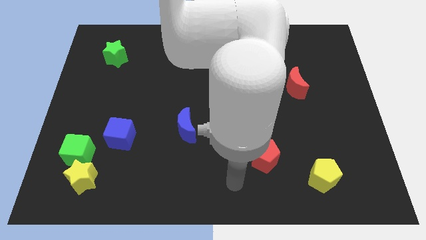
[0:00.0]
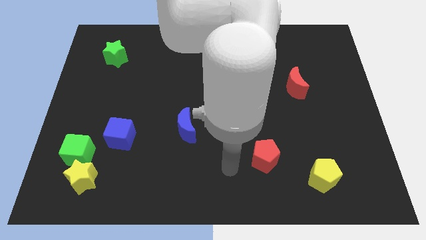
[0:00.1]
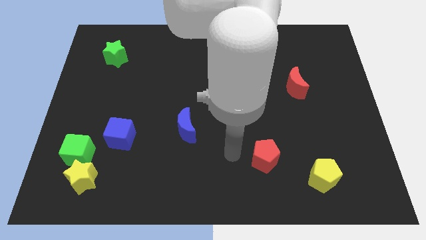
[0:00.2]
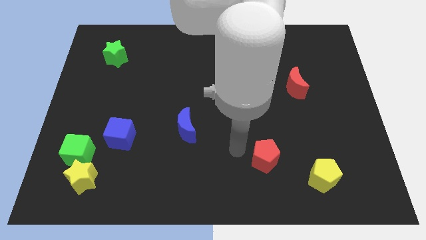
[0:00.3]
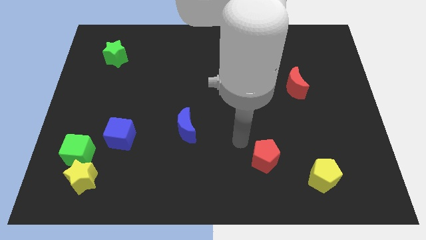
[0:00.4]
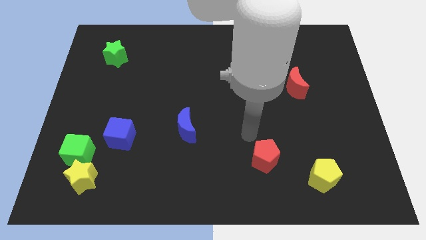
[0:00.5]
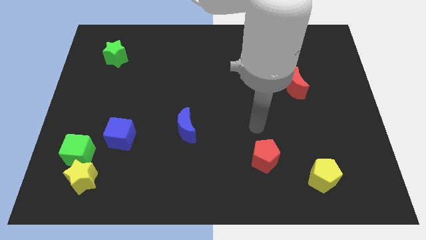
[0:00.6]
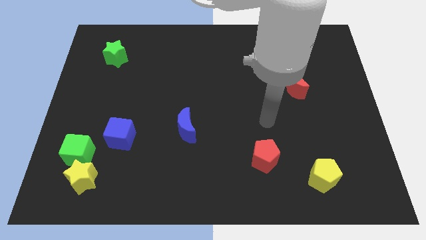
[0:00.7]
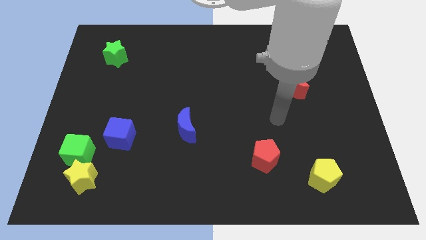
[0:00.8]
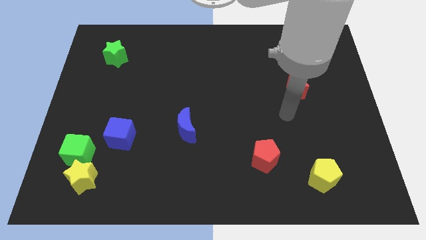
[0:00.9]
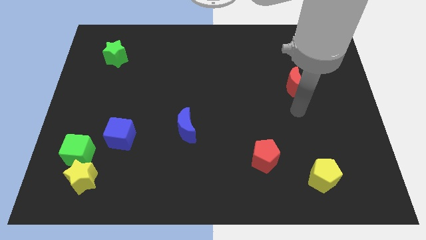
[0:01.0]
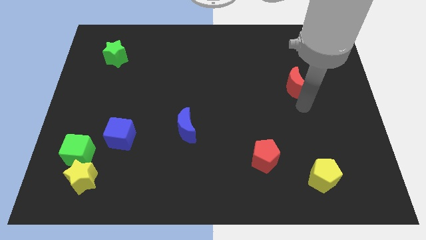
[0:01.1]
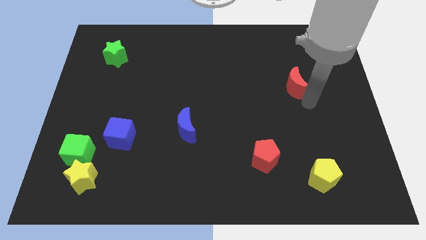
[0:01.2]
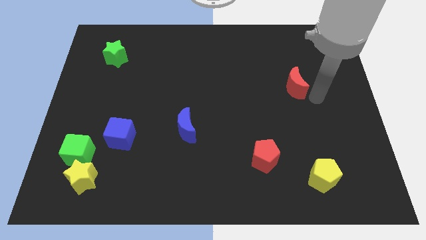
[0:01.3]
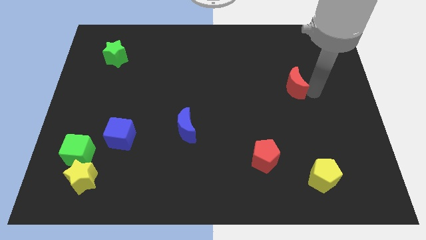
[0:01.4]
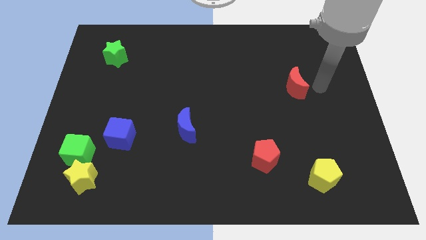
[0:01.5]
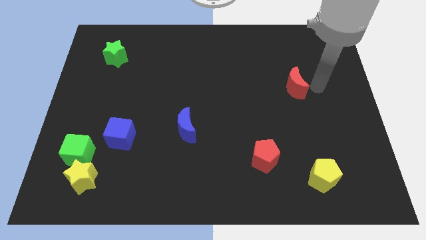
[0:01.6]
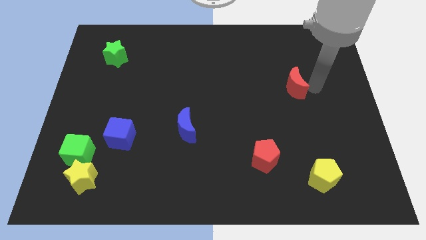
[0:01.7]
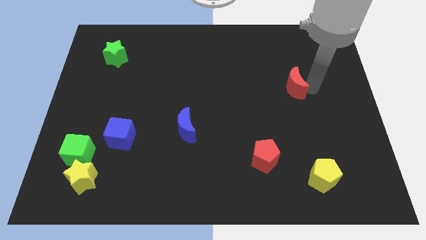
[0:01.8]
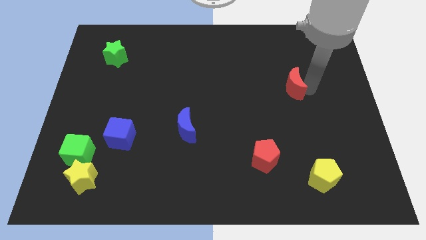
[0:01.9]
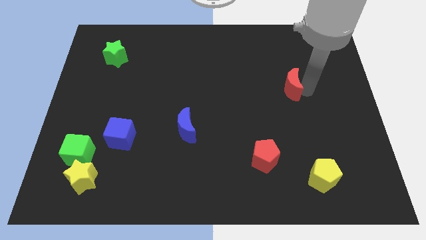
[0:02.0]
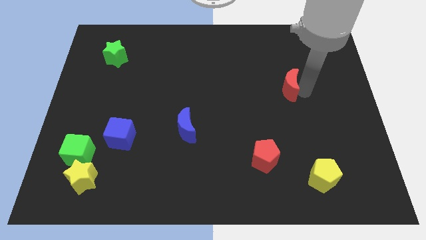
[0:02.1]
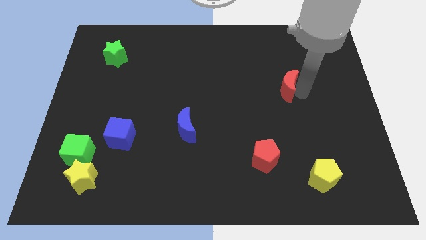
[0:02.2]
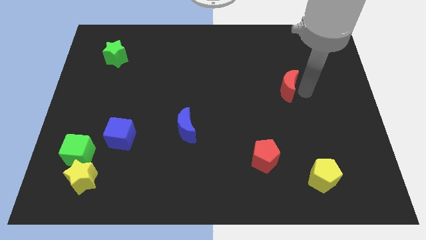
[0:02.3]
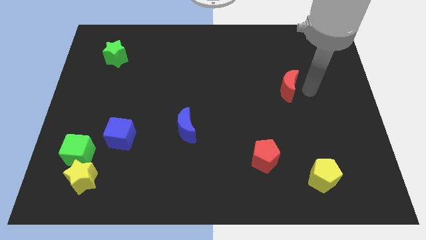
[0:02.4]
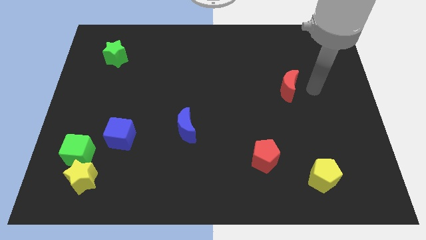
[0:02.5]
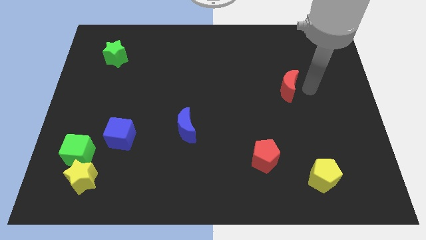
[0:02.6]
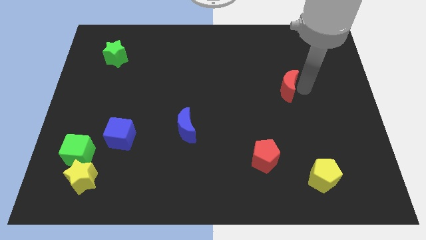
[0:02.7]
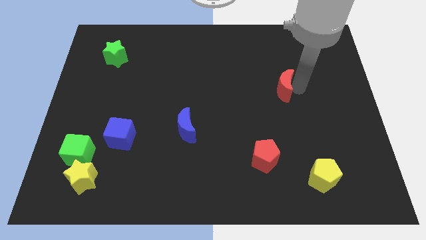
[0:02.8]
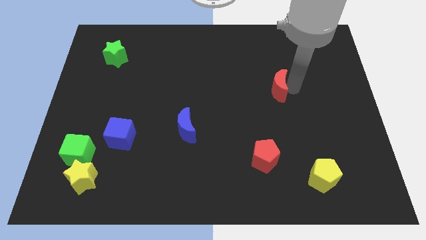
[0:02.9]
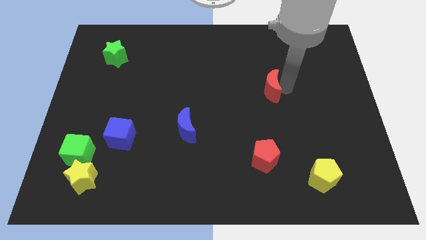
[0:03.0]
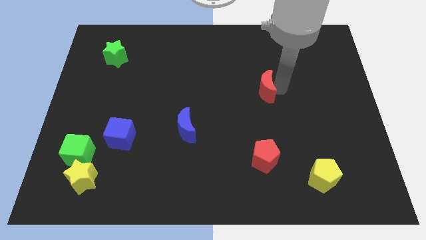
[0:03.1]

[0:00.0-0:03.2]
move the red moon left slightly

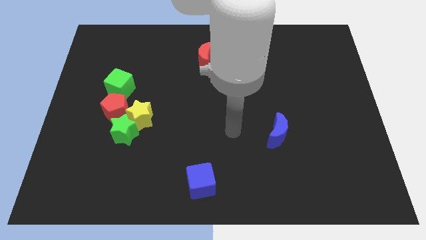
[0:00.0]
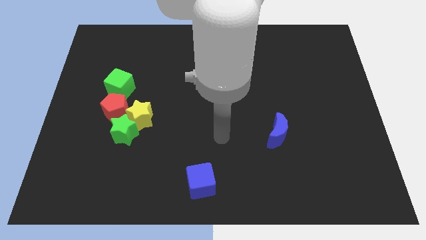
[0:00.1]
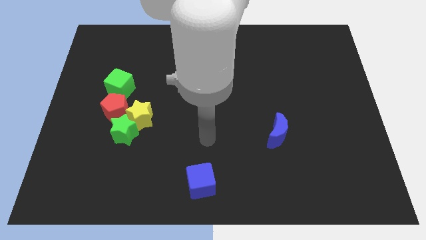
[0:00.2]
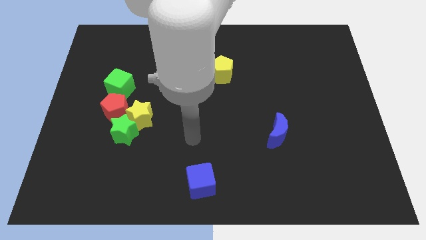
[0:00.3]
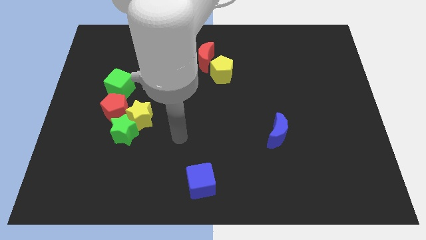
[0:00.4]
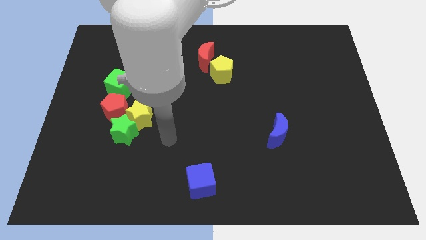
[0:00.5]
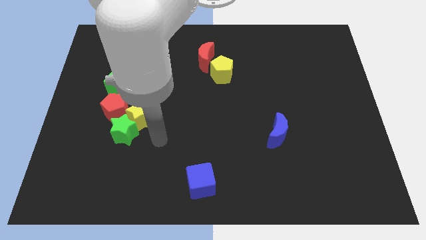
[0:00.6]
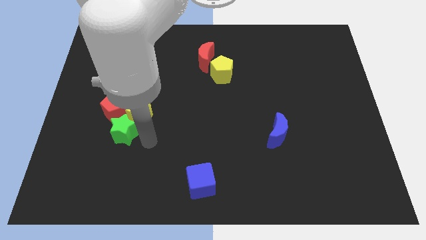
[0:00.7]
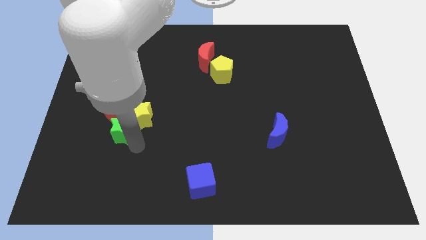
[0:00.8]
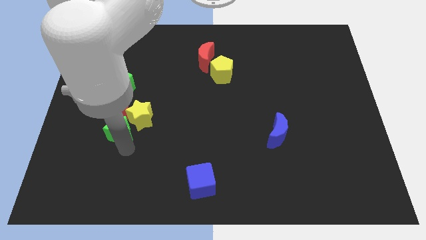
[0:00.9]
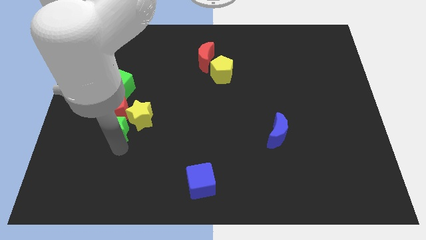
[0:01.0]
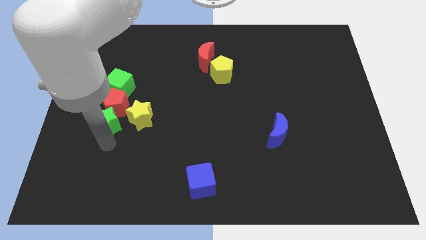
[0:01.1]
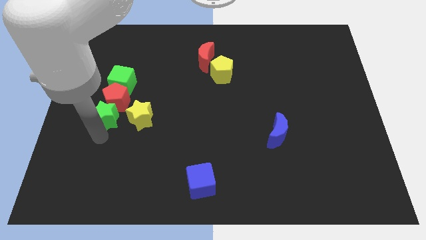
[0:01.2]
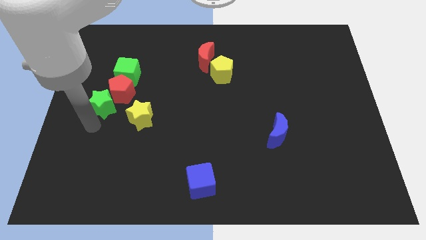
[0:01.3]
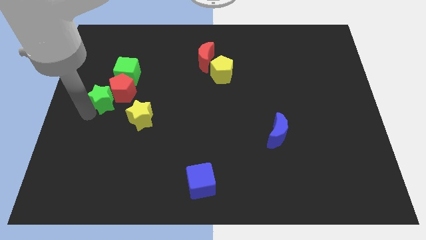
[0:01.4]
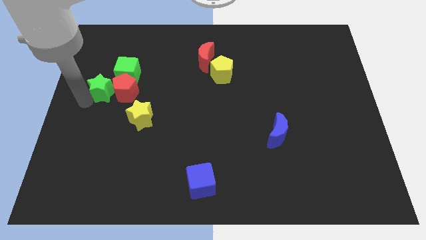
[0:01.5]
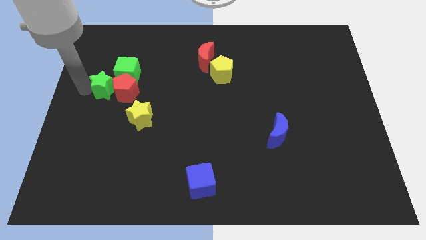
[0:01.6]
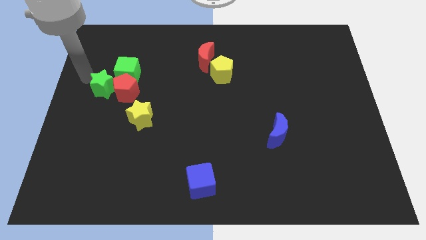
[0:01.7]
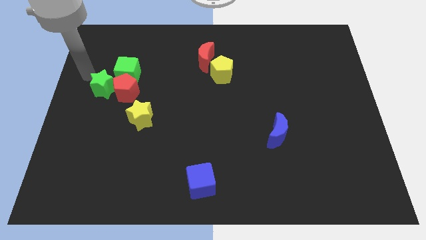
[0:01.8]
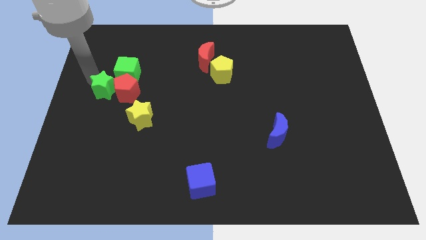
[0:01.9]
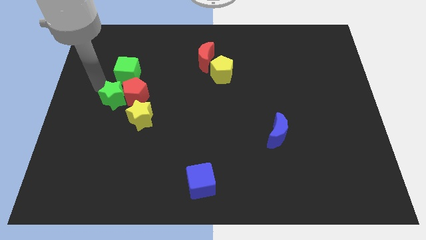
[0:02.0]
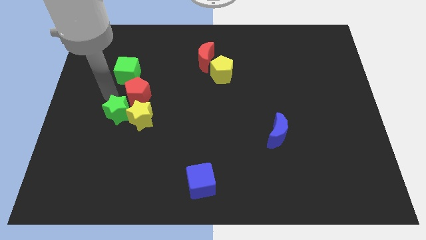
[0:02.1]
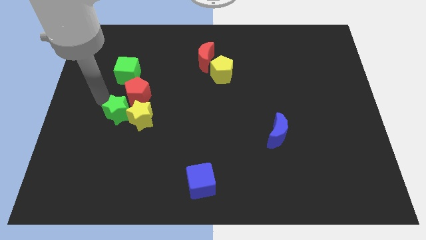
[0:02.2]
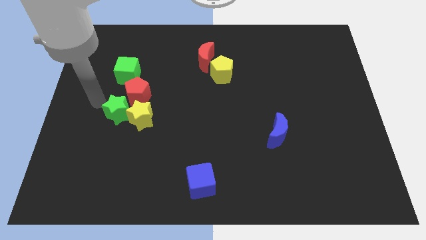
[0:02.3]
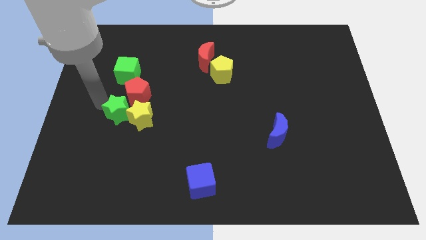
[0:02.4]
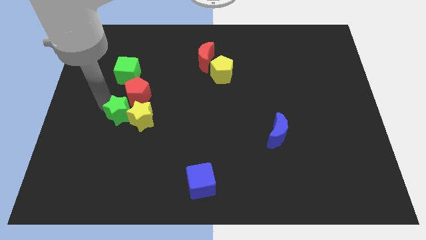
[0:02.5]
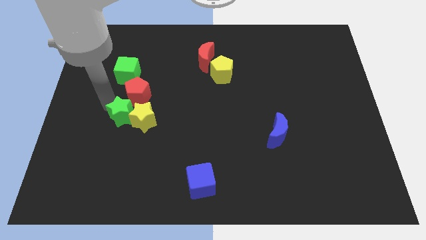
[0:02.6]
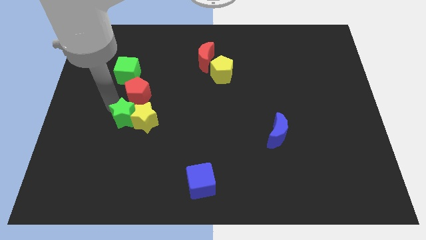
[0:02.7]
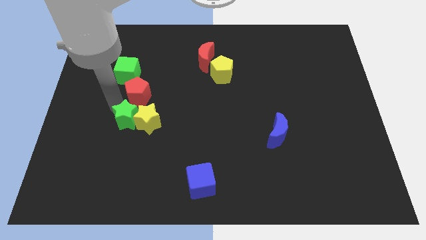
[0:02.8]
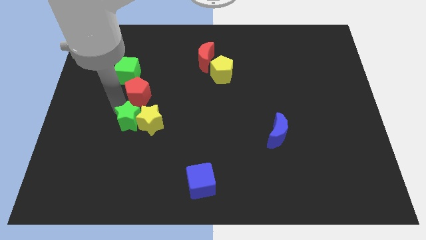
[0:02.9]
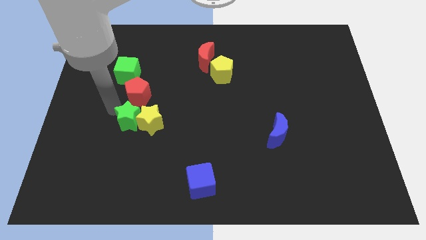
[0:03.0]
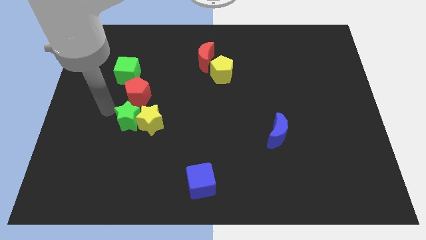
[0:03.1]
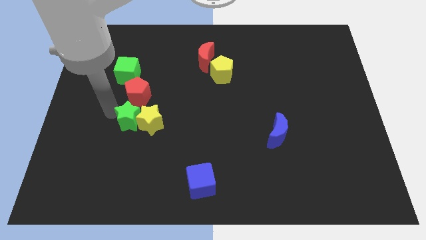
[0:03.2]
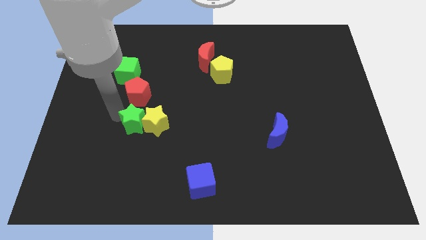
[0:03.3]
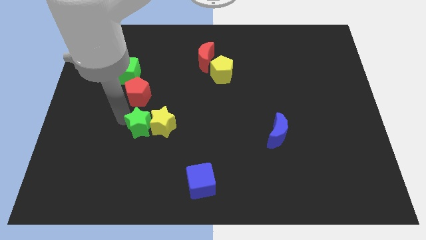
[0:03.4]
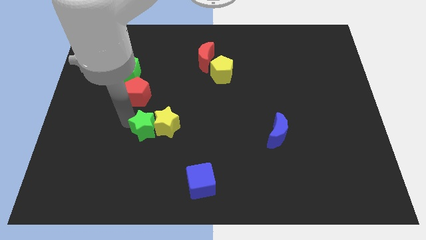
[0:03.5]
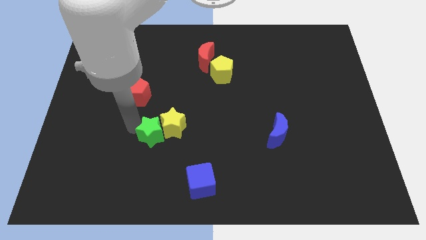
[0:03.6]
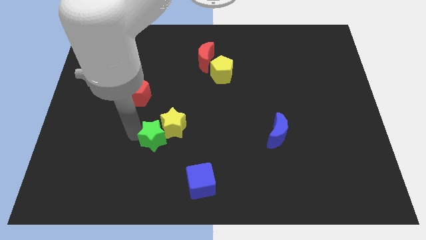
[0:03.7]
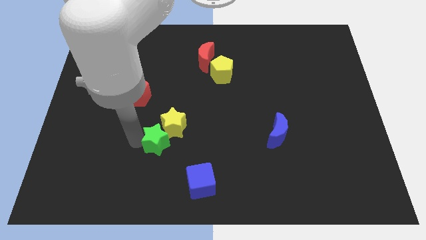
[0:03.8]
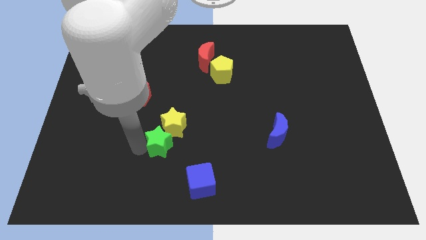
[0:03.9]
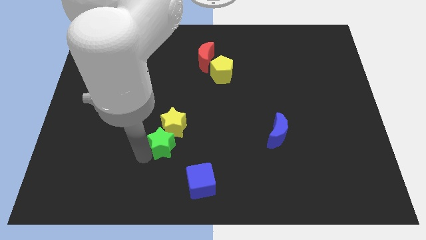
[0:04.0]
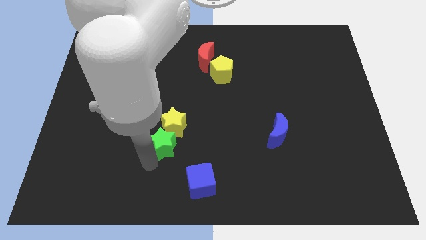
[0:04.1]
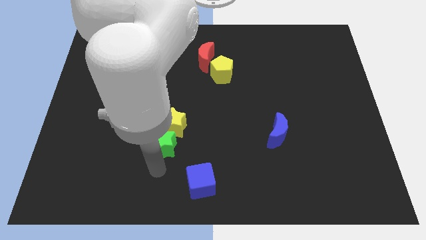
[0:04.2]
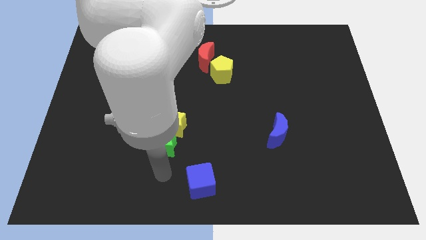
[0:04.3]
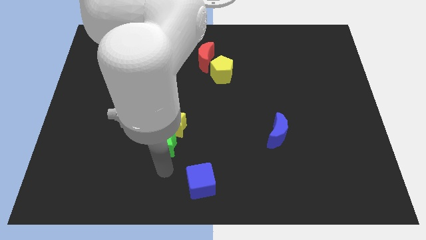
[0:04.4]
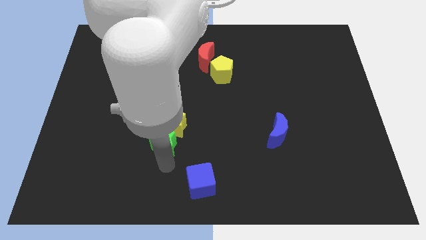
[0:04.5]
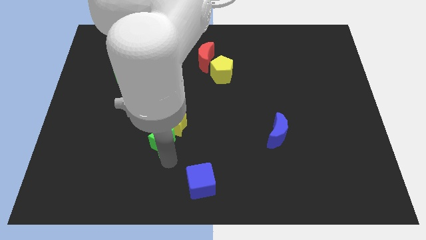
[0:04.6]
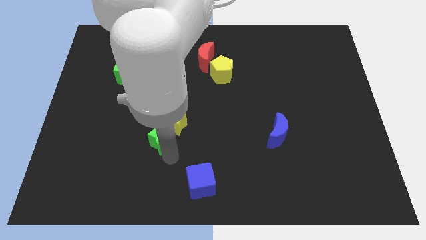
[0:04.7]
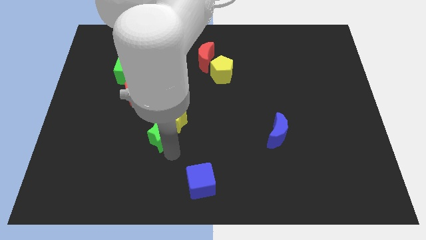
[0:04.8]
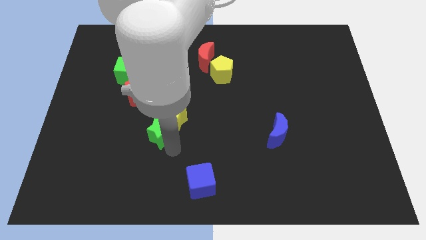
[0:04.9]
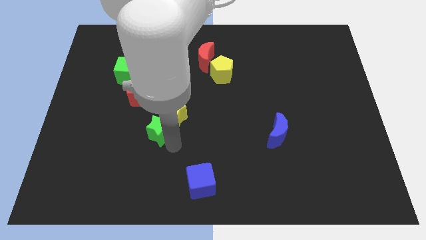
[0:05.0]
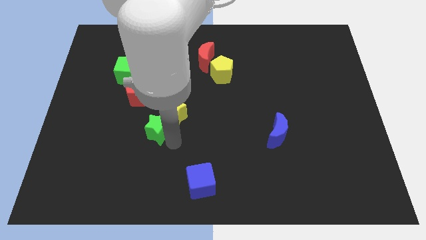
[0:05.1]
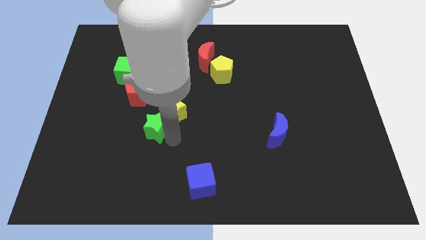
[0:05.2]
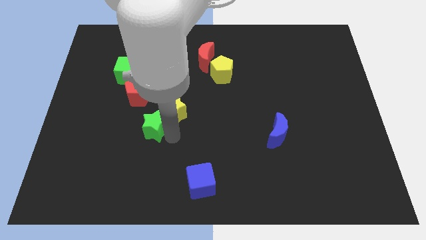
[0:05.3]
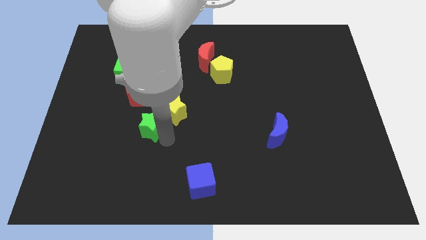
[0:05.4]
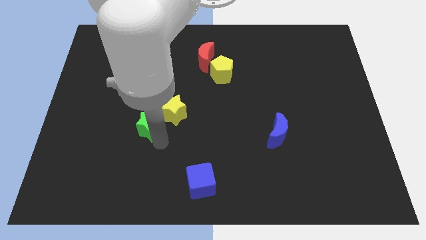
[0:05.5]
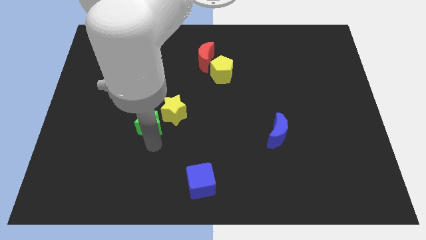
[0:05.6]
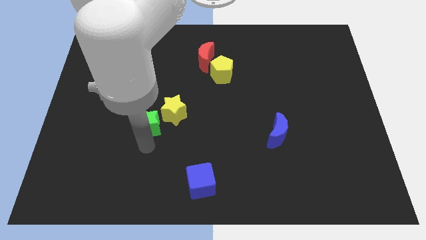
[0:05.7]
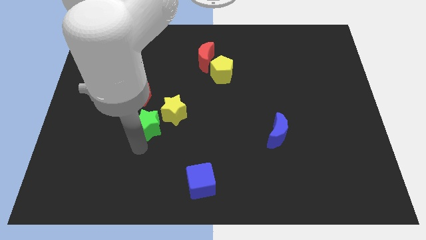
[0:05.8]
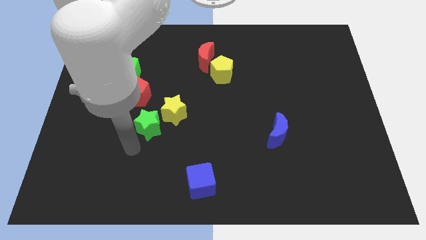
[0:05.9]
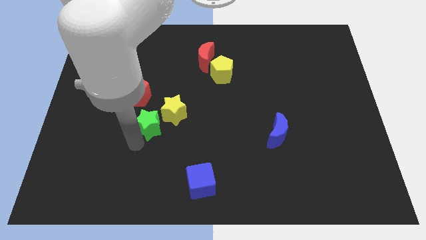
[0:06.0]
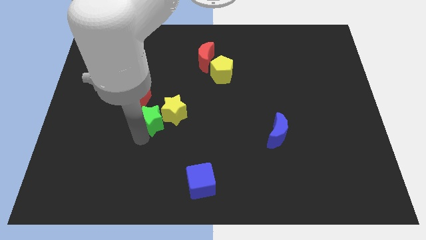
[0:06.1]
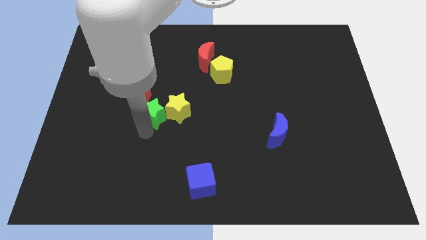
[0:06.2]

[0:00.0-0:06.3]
slide the green star upwards and right diagonally a little
